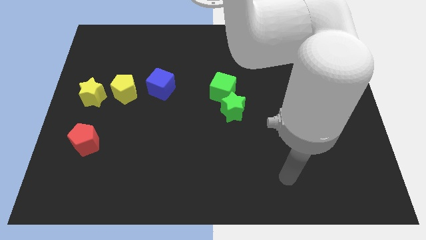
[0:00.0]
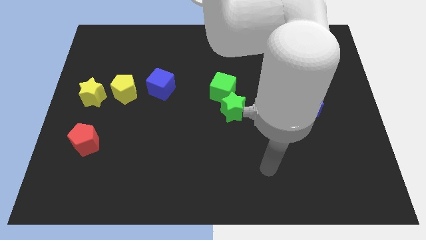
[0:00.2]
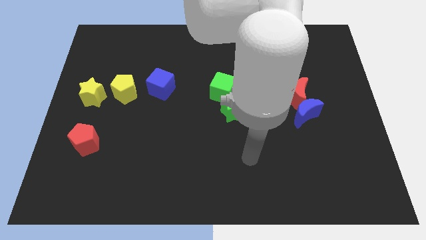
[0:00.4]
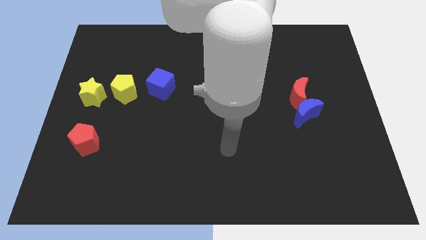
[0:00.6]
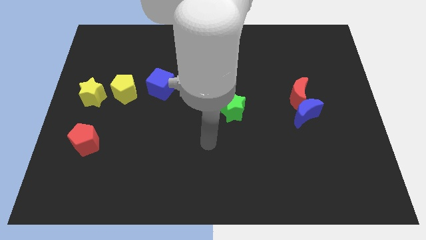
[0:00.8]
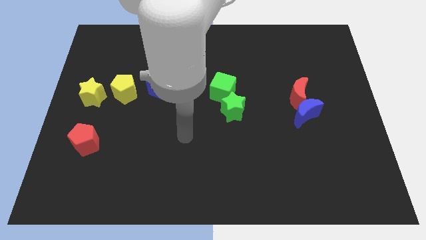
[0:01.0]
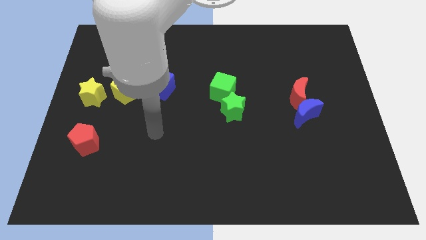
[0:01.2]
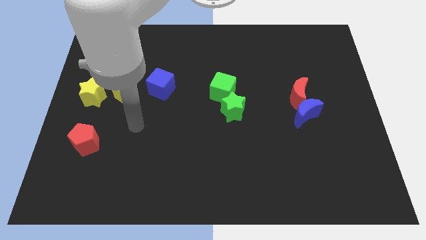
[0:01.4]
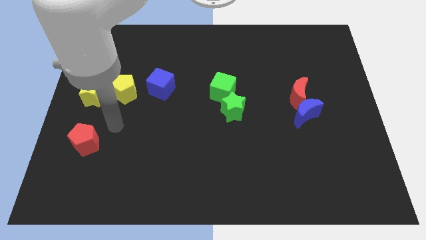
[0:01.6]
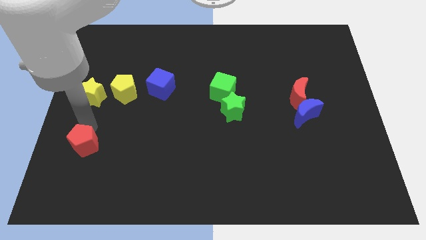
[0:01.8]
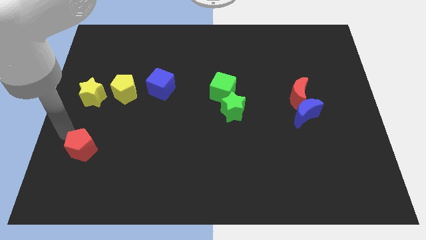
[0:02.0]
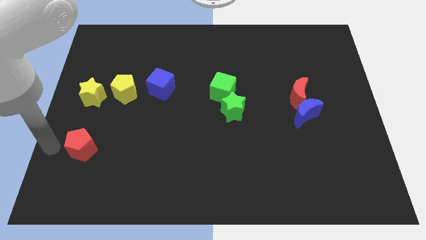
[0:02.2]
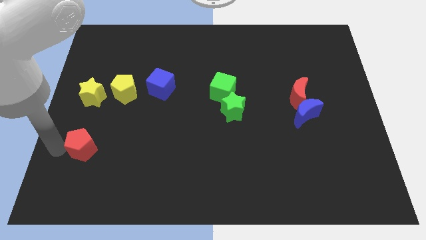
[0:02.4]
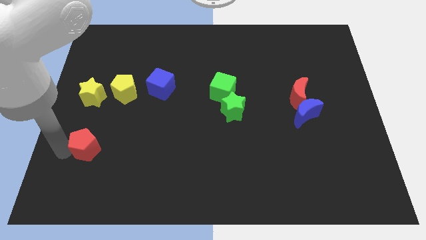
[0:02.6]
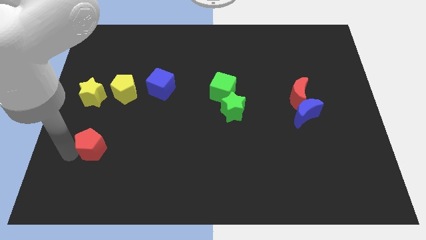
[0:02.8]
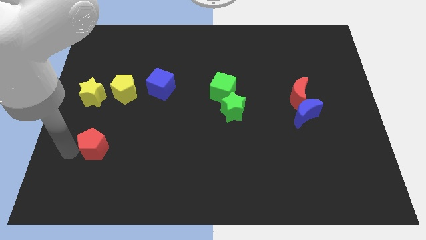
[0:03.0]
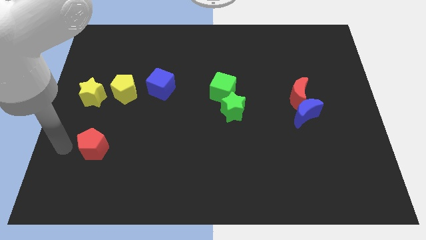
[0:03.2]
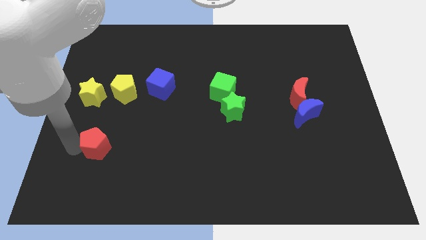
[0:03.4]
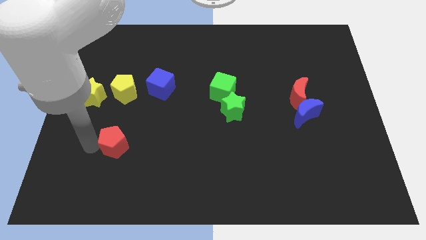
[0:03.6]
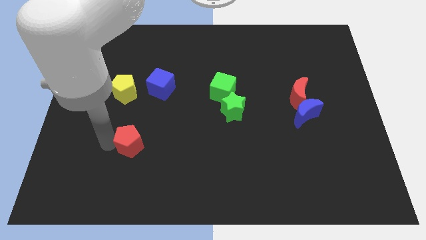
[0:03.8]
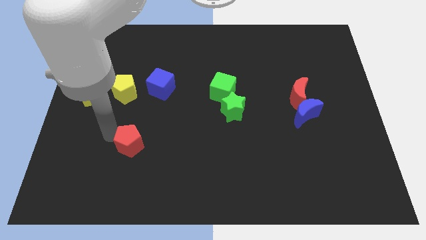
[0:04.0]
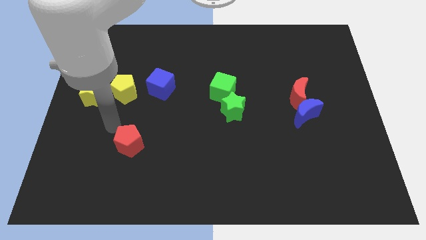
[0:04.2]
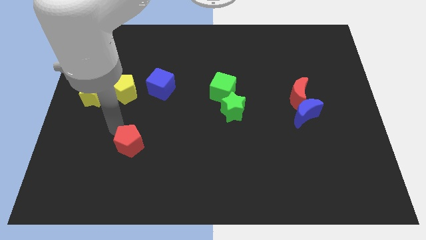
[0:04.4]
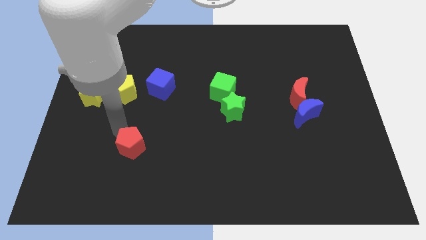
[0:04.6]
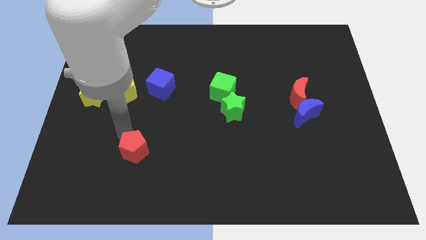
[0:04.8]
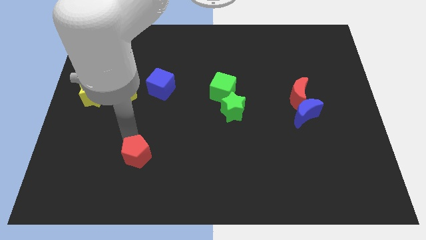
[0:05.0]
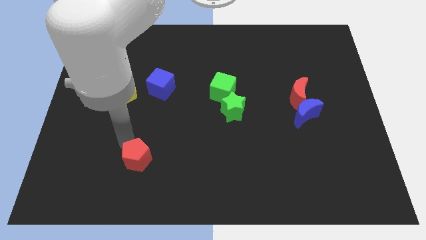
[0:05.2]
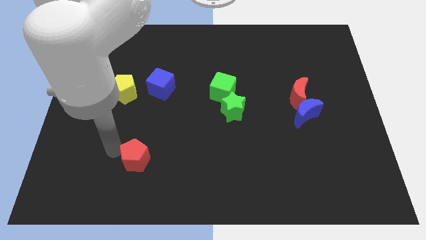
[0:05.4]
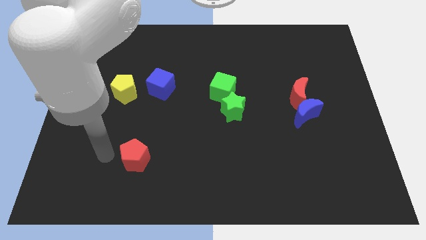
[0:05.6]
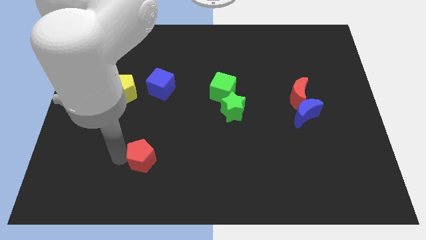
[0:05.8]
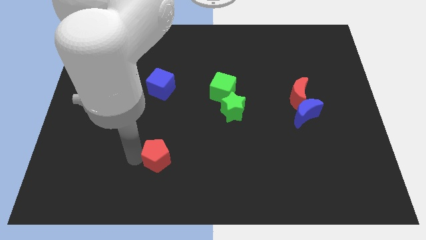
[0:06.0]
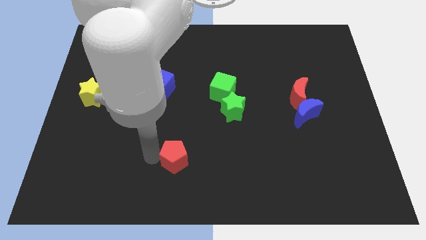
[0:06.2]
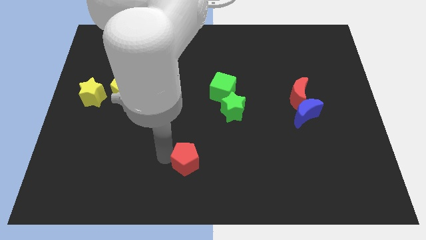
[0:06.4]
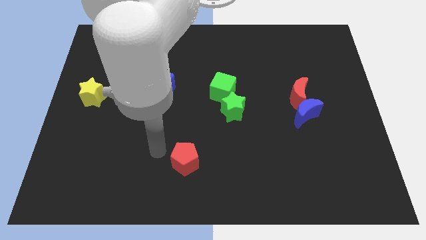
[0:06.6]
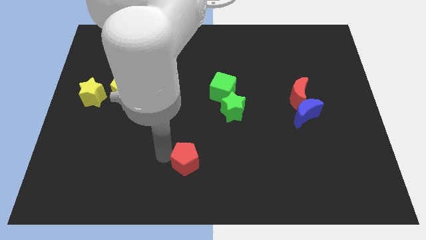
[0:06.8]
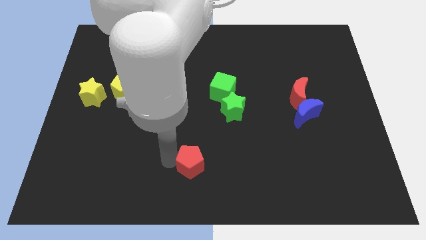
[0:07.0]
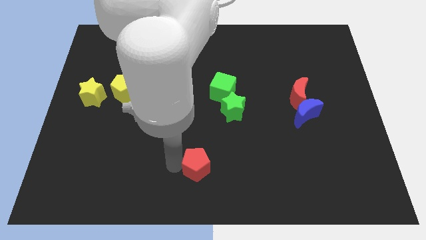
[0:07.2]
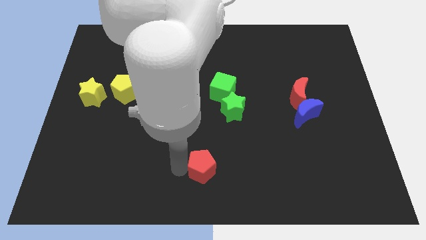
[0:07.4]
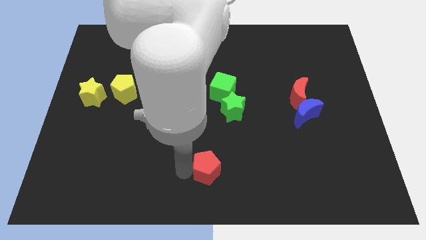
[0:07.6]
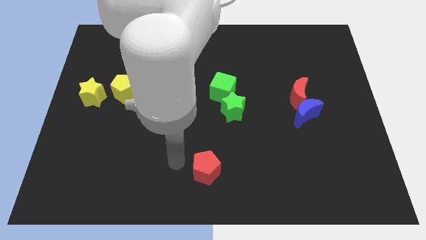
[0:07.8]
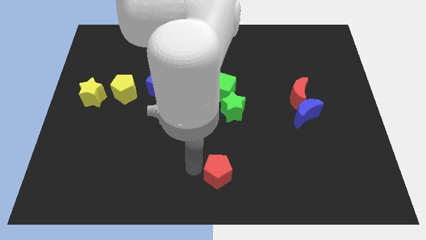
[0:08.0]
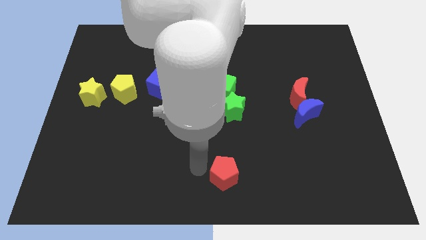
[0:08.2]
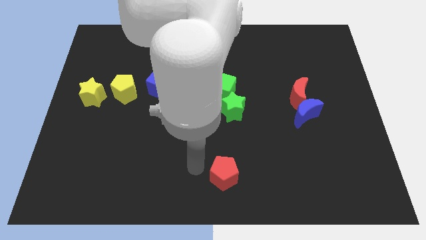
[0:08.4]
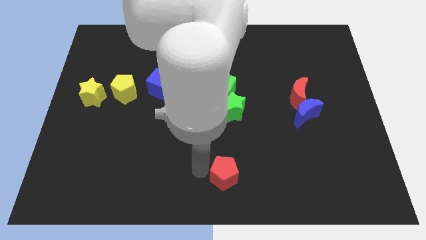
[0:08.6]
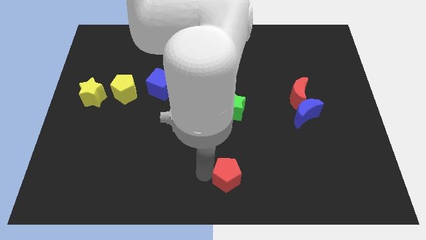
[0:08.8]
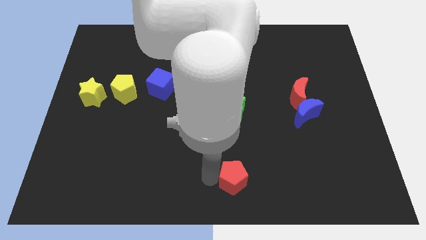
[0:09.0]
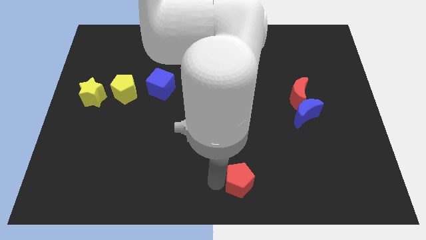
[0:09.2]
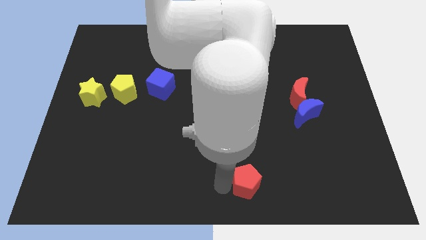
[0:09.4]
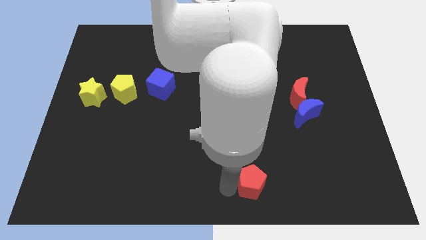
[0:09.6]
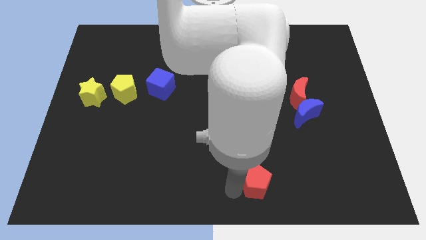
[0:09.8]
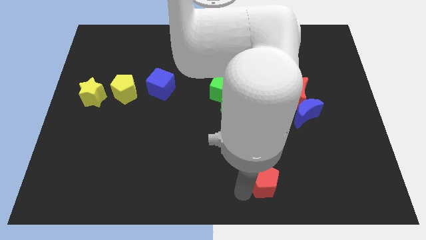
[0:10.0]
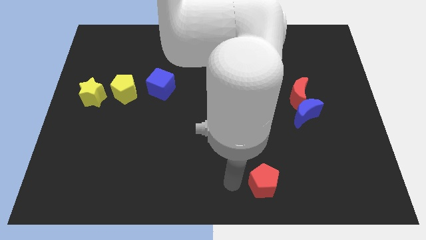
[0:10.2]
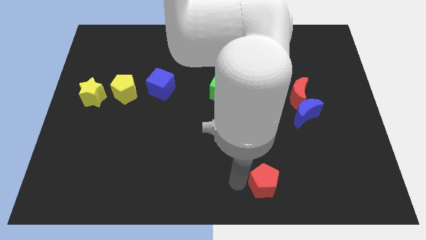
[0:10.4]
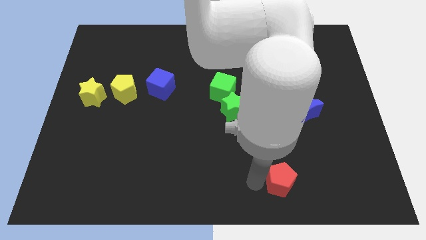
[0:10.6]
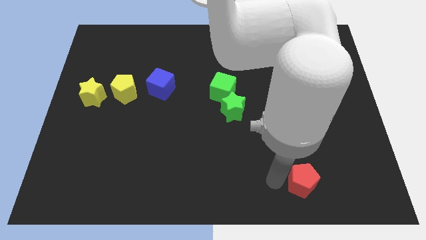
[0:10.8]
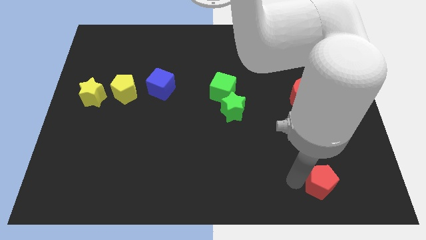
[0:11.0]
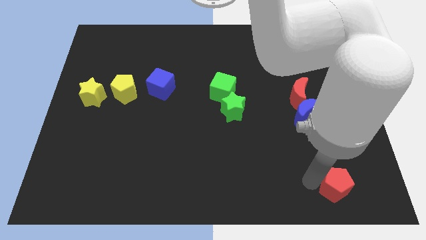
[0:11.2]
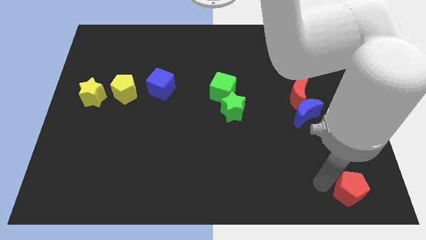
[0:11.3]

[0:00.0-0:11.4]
move the red pentagon to the bottom right of the board

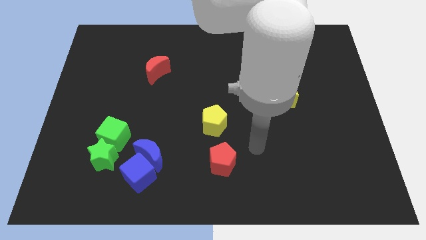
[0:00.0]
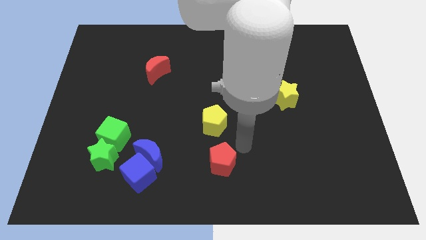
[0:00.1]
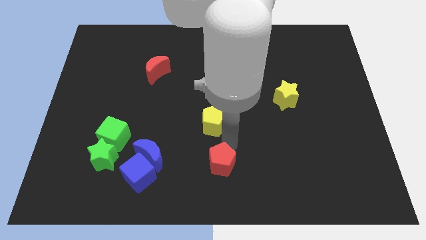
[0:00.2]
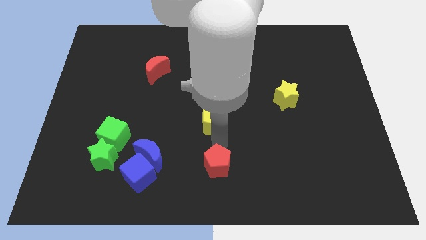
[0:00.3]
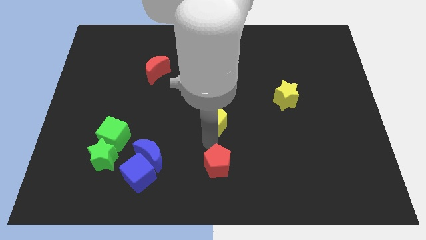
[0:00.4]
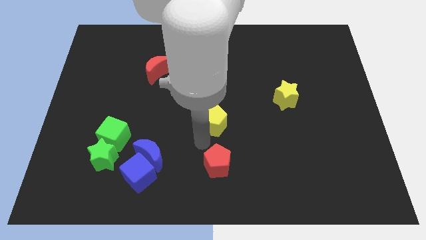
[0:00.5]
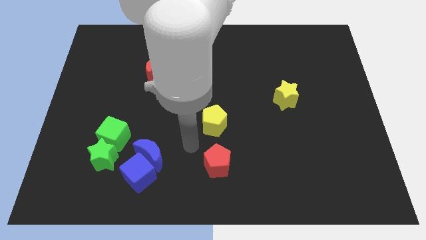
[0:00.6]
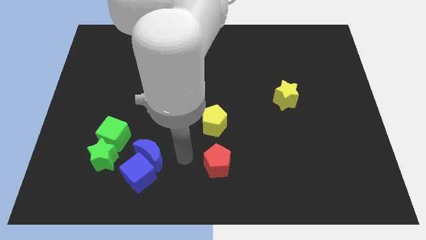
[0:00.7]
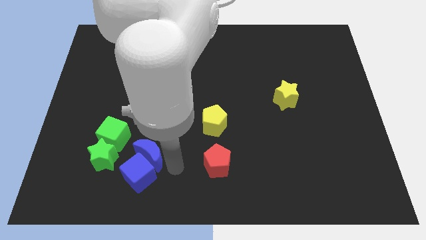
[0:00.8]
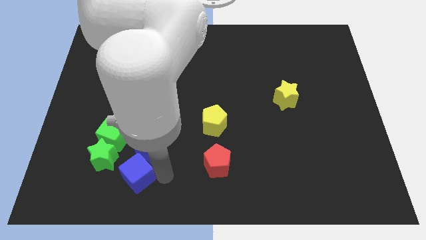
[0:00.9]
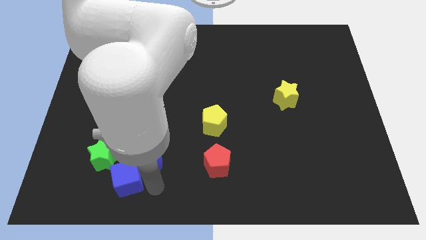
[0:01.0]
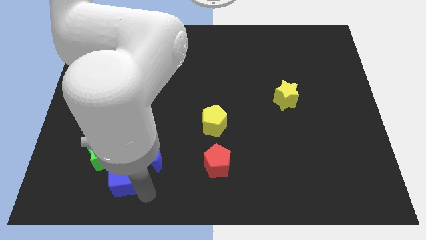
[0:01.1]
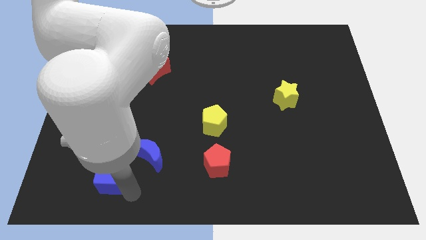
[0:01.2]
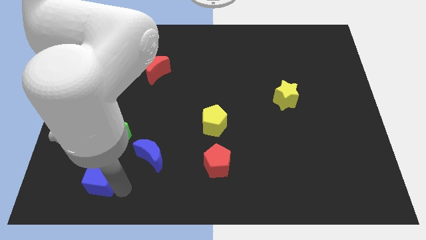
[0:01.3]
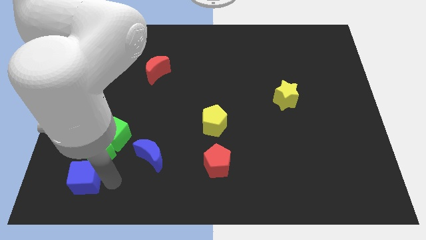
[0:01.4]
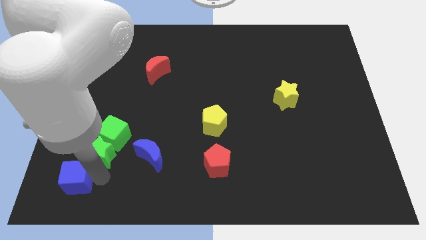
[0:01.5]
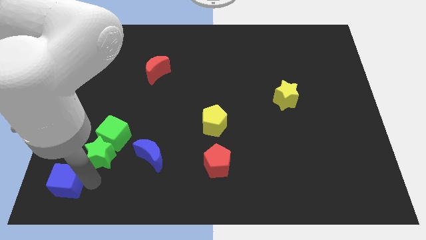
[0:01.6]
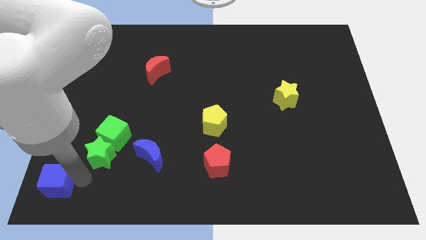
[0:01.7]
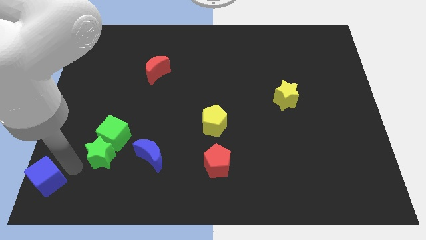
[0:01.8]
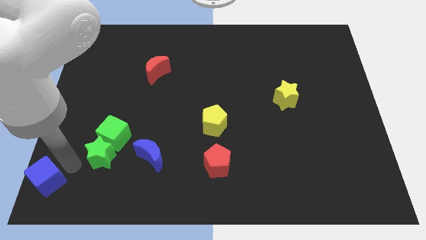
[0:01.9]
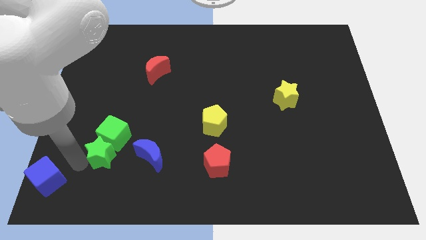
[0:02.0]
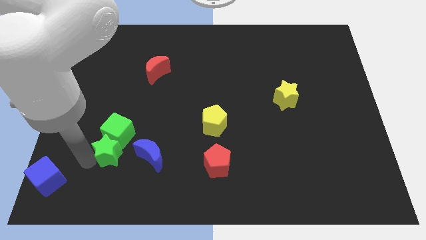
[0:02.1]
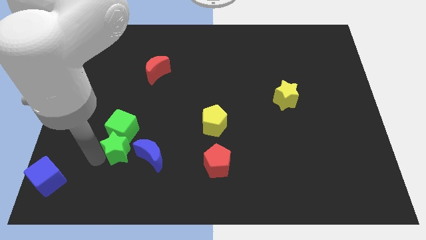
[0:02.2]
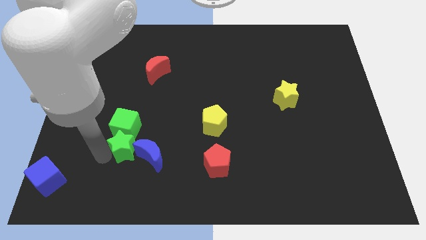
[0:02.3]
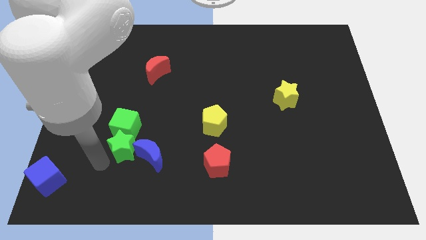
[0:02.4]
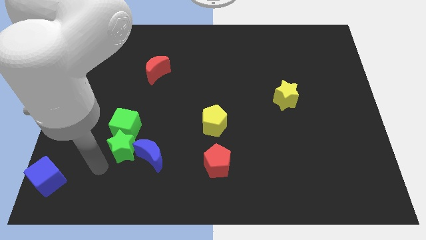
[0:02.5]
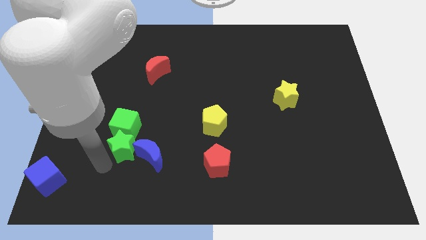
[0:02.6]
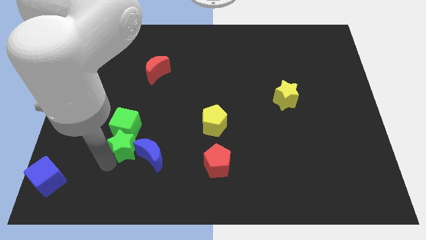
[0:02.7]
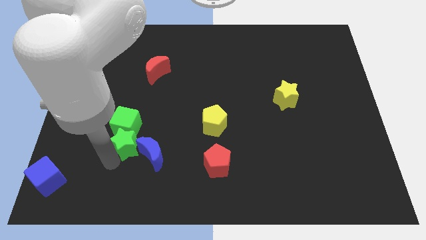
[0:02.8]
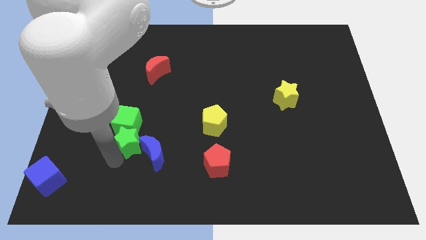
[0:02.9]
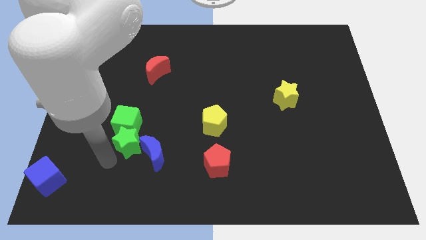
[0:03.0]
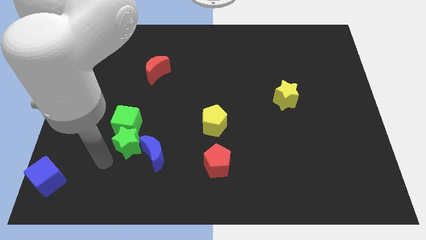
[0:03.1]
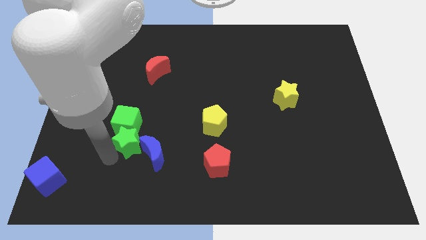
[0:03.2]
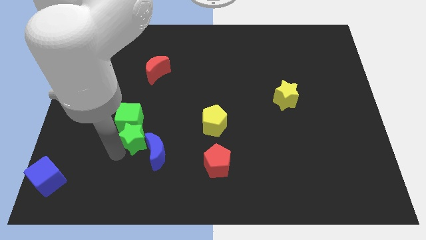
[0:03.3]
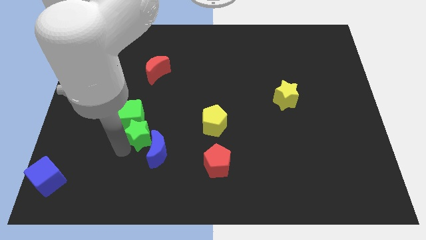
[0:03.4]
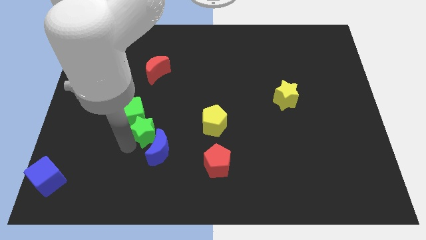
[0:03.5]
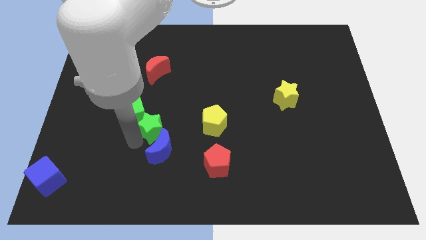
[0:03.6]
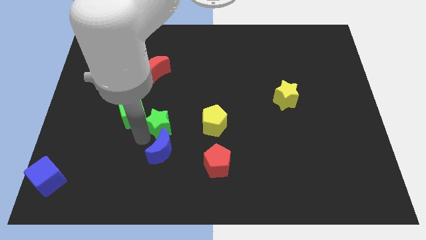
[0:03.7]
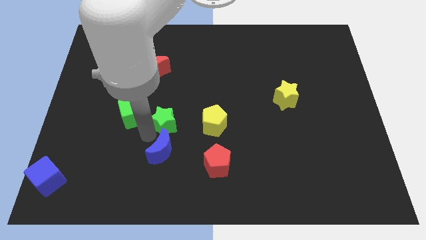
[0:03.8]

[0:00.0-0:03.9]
push the green star to the center of the board
